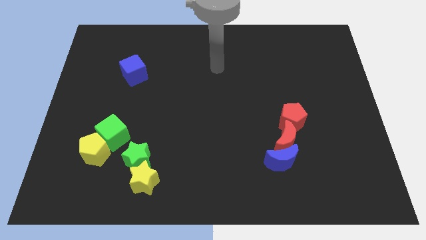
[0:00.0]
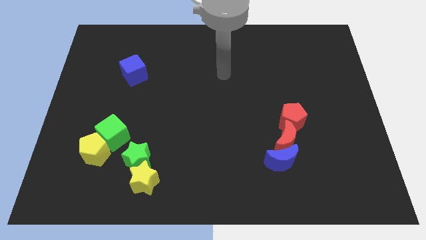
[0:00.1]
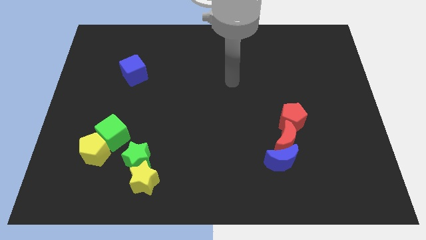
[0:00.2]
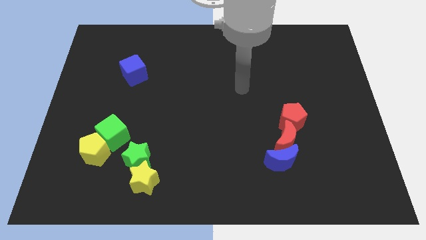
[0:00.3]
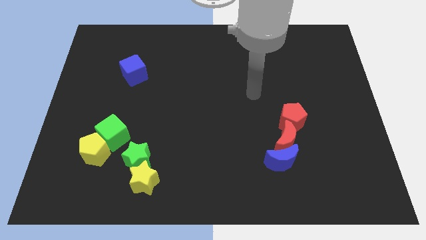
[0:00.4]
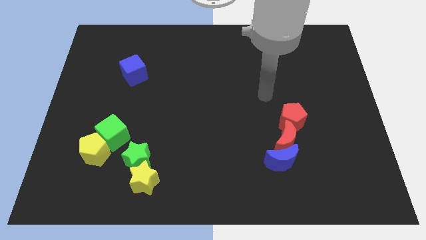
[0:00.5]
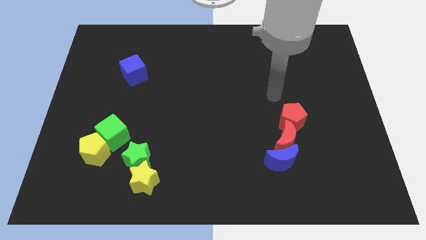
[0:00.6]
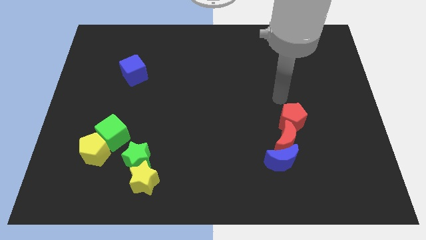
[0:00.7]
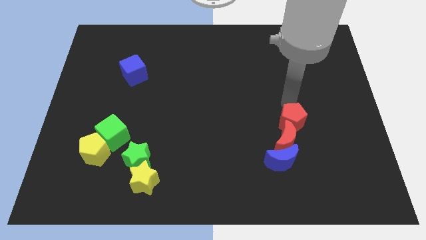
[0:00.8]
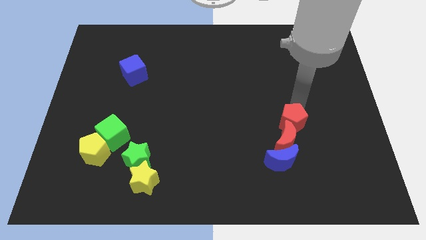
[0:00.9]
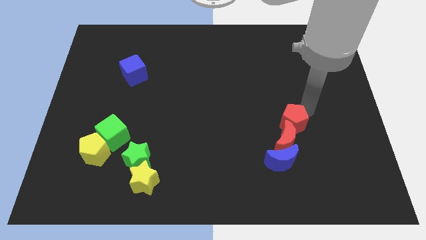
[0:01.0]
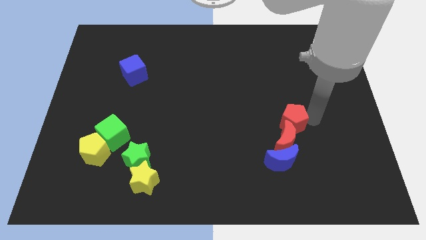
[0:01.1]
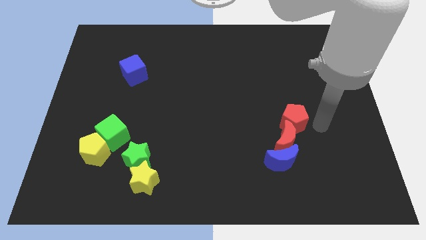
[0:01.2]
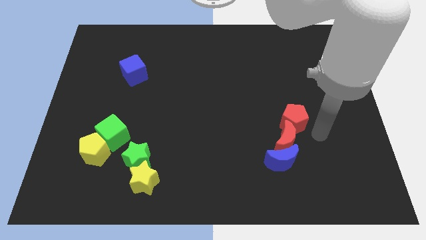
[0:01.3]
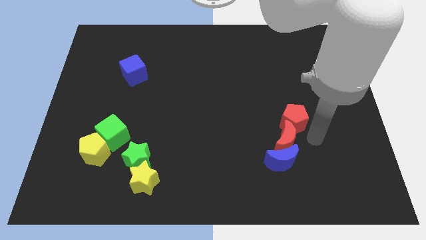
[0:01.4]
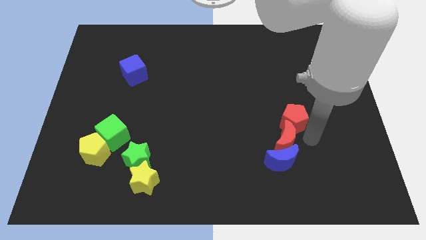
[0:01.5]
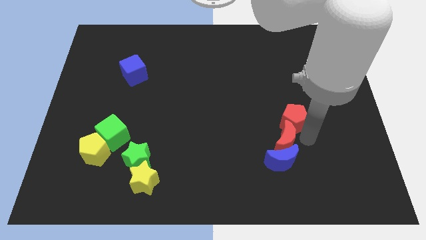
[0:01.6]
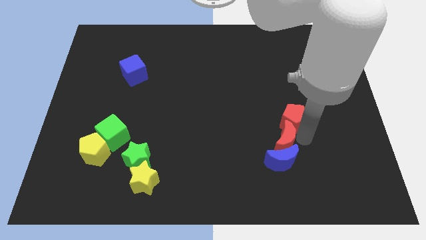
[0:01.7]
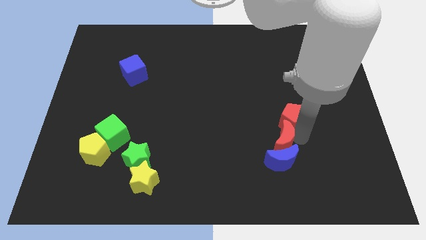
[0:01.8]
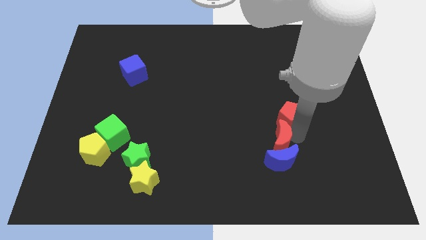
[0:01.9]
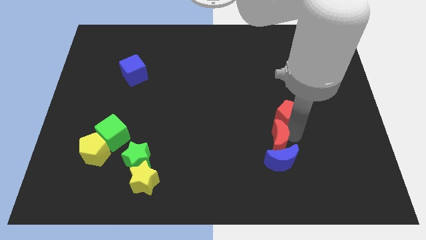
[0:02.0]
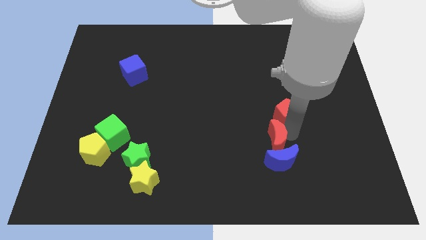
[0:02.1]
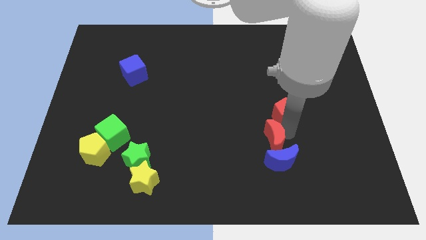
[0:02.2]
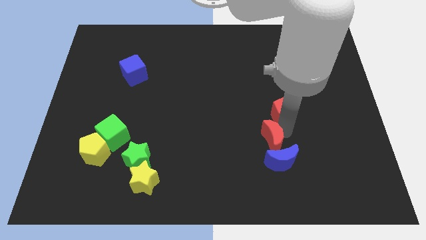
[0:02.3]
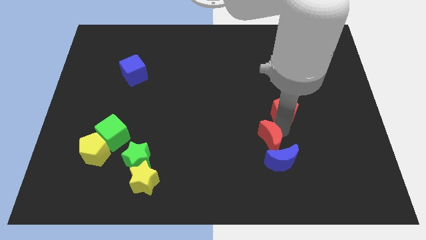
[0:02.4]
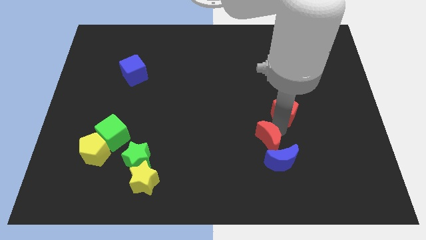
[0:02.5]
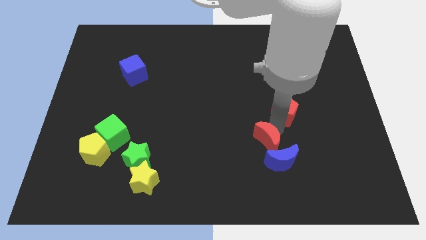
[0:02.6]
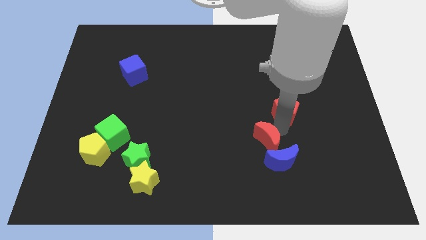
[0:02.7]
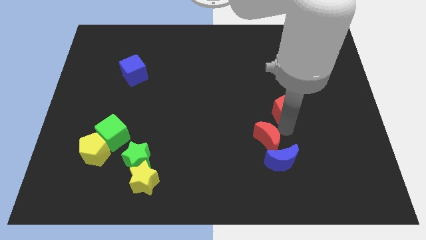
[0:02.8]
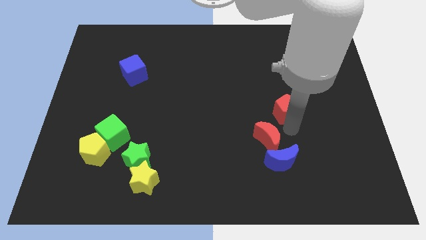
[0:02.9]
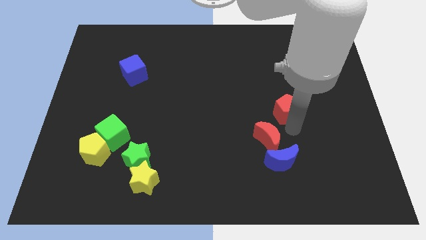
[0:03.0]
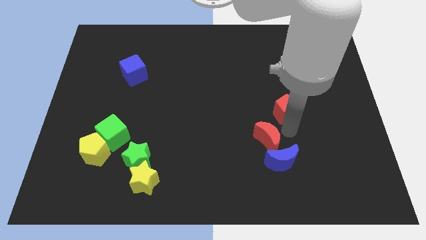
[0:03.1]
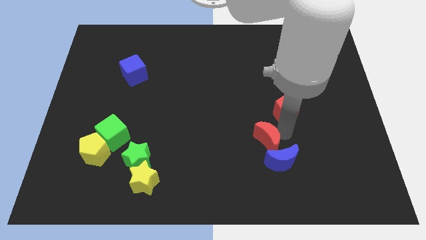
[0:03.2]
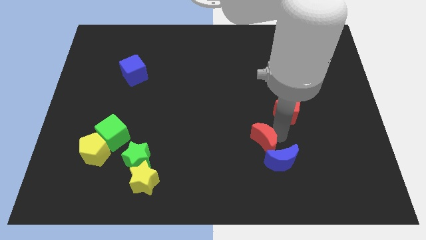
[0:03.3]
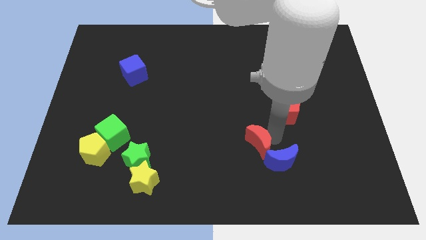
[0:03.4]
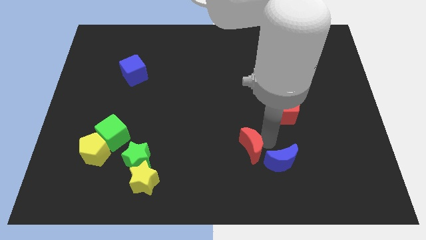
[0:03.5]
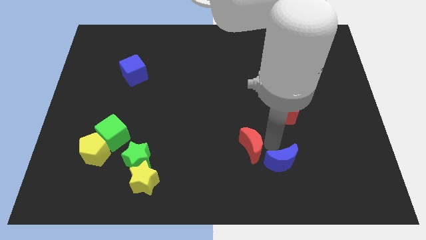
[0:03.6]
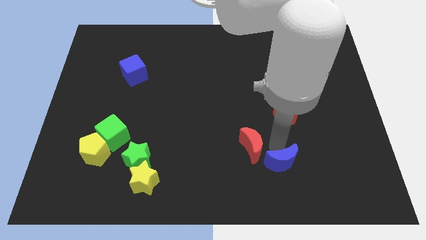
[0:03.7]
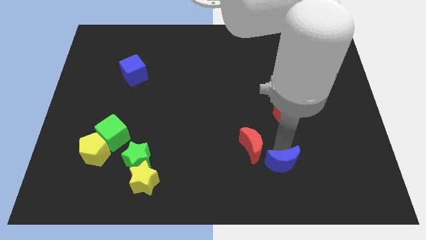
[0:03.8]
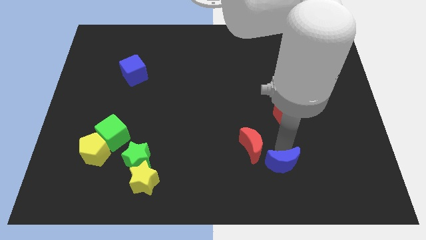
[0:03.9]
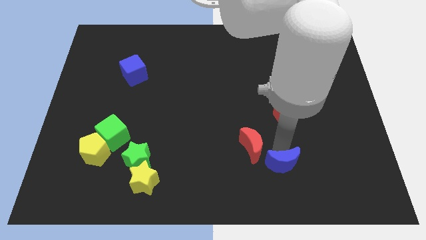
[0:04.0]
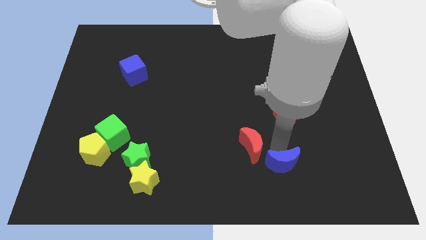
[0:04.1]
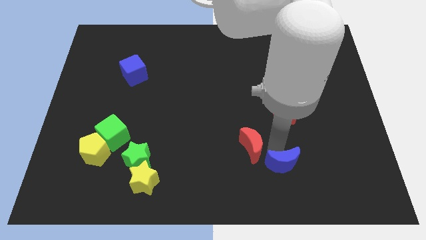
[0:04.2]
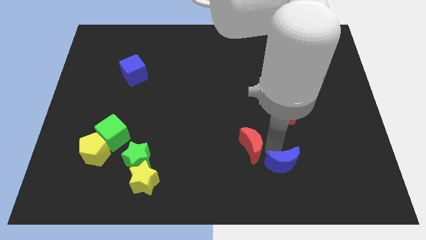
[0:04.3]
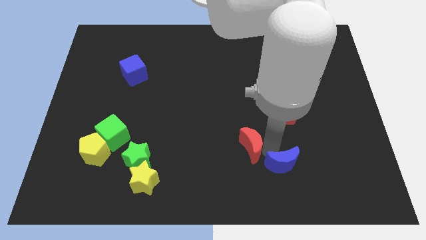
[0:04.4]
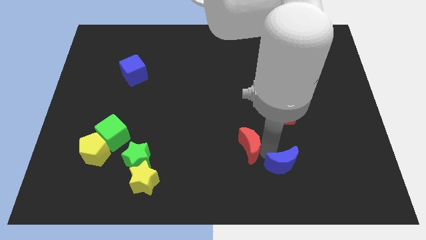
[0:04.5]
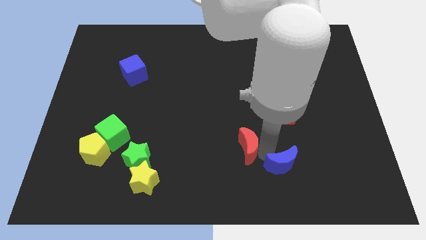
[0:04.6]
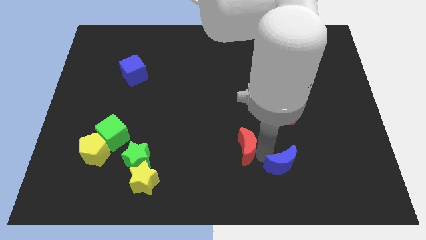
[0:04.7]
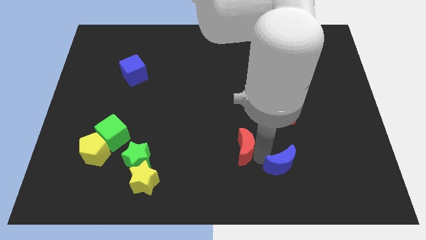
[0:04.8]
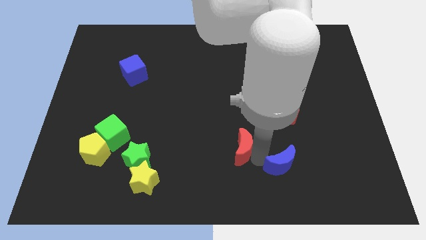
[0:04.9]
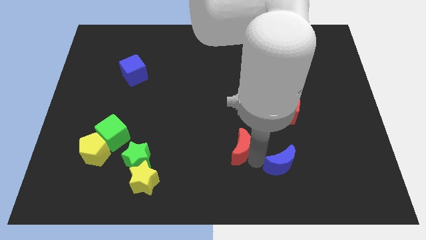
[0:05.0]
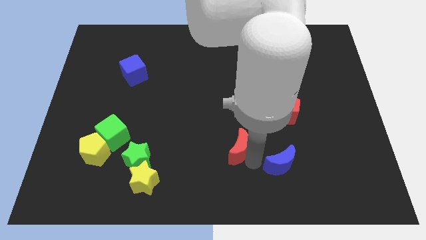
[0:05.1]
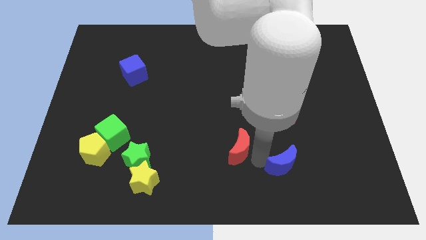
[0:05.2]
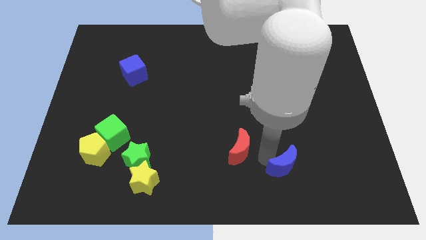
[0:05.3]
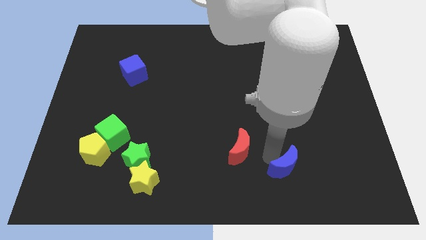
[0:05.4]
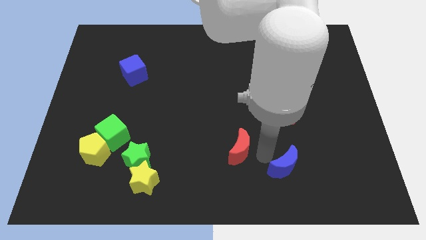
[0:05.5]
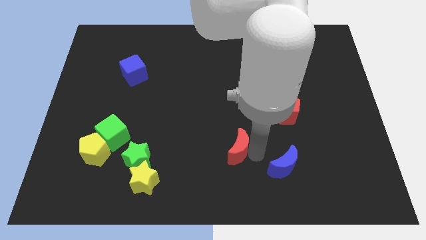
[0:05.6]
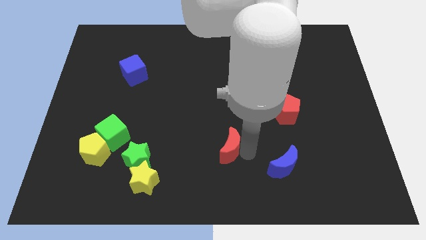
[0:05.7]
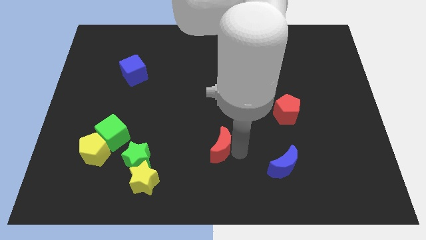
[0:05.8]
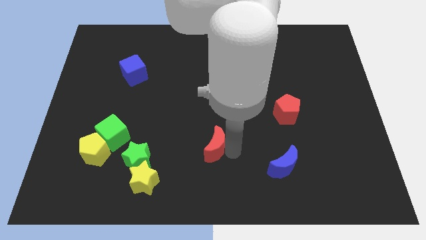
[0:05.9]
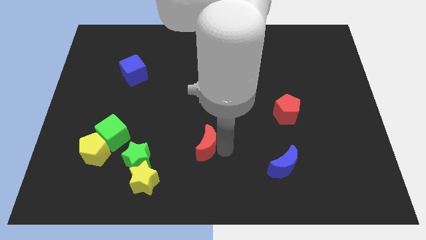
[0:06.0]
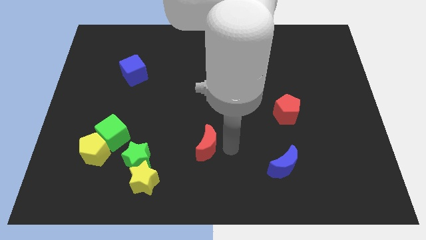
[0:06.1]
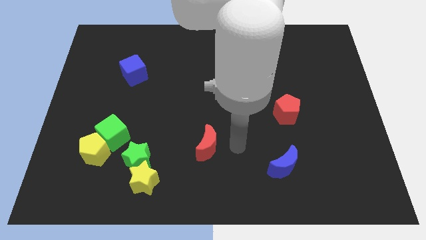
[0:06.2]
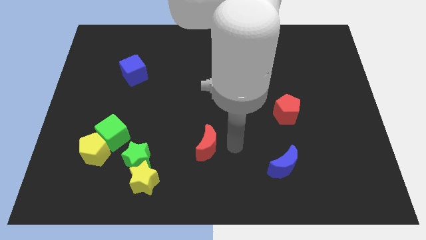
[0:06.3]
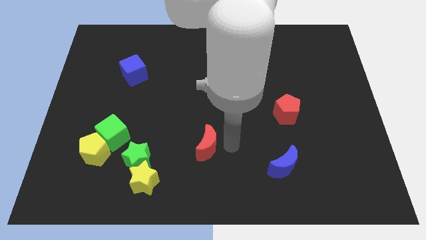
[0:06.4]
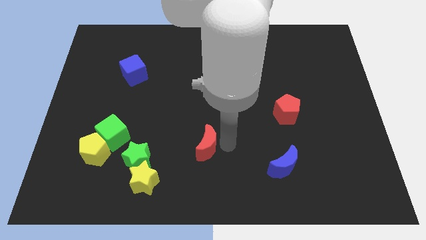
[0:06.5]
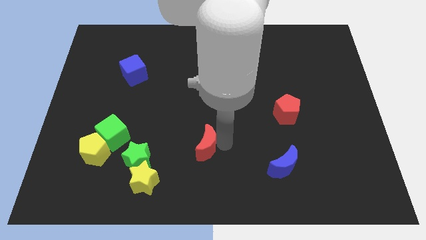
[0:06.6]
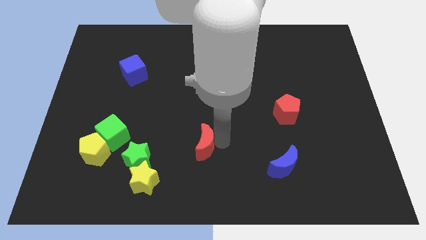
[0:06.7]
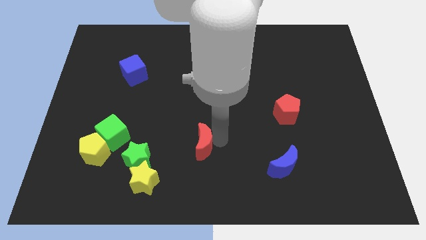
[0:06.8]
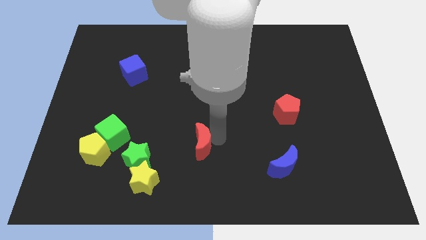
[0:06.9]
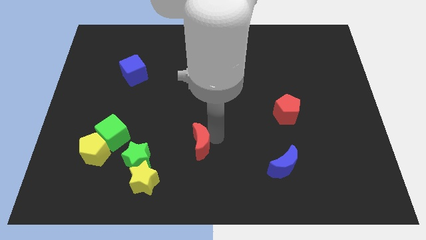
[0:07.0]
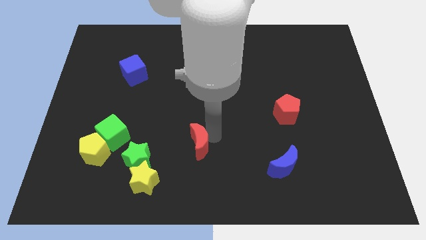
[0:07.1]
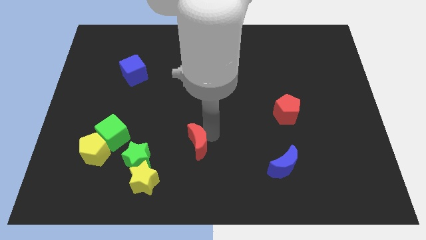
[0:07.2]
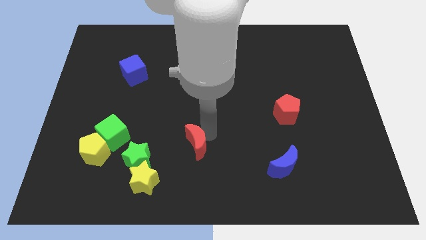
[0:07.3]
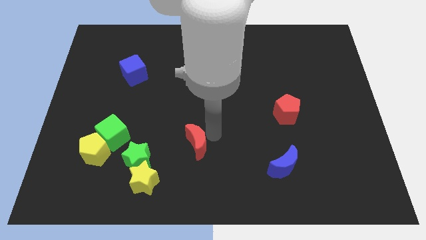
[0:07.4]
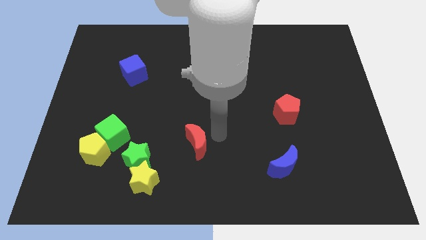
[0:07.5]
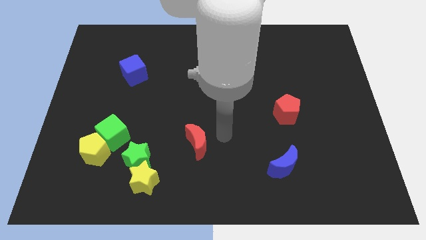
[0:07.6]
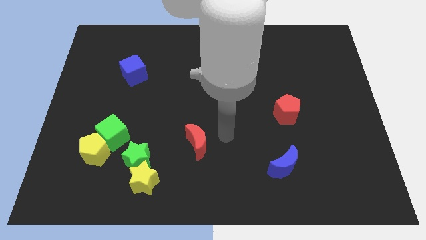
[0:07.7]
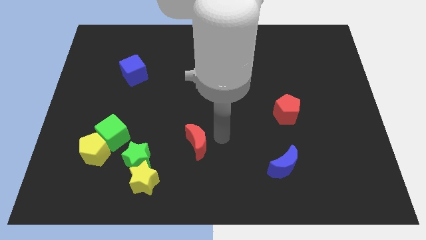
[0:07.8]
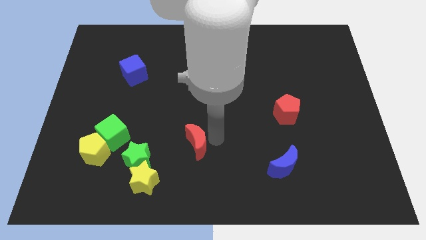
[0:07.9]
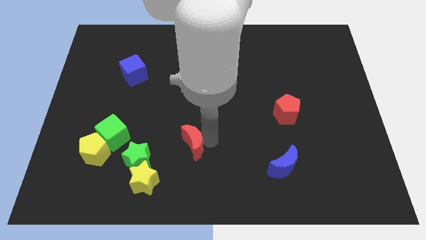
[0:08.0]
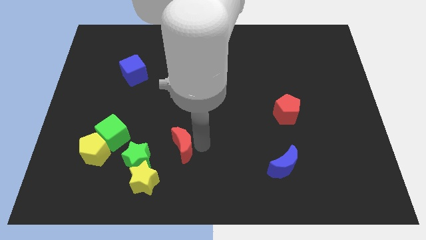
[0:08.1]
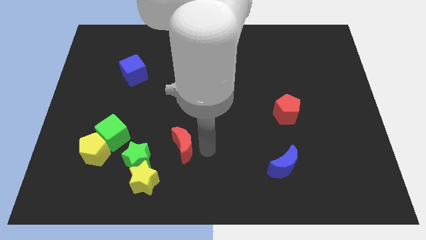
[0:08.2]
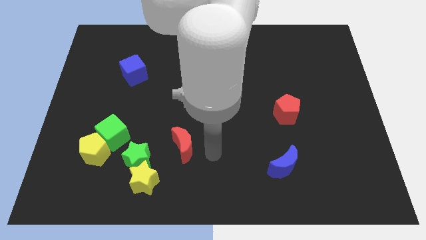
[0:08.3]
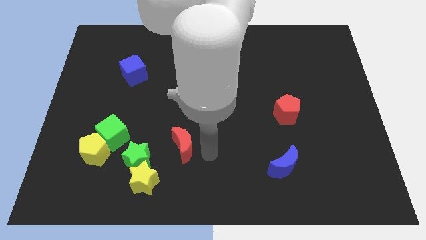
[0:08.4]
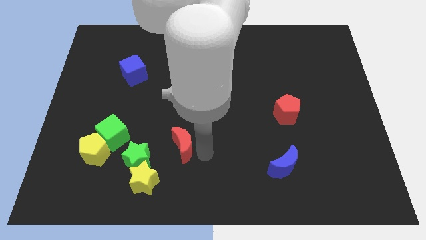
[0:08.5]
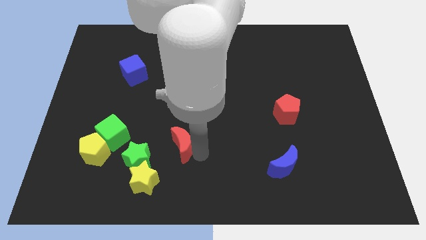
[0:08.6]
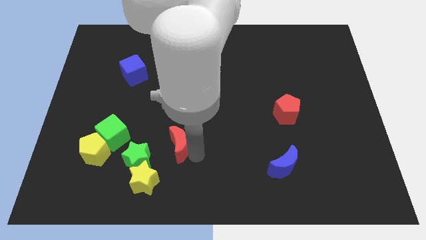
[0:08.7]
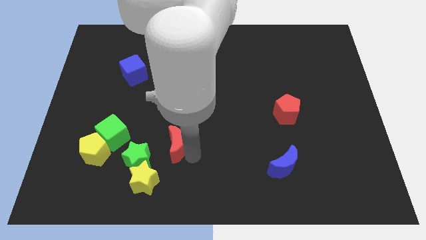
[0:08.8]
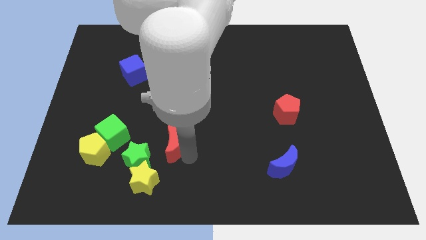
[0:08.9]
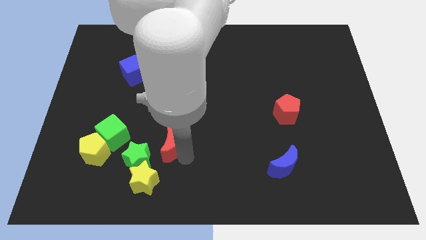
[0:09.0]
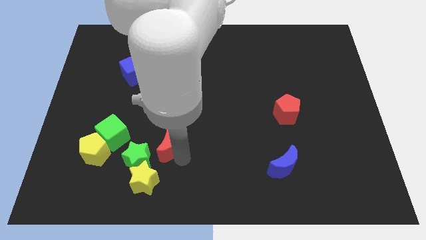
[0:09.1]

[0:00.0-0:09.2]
put the red moon to the top side of the yellow star
